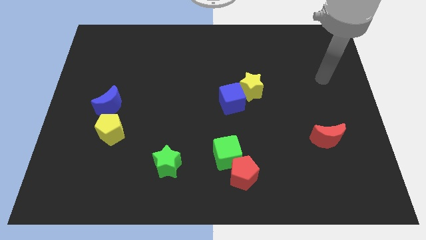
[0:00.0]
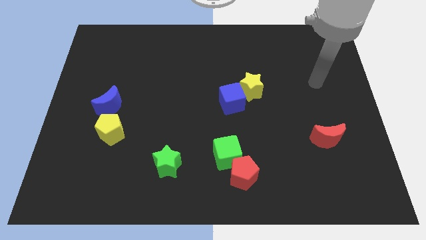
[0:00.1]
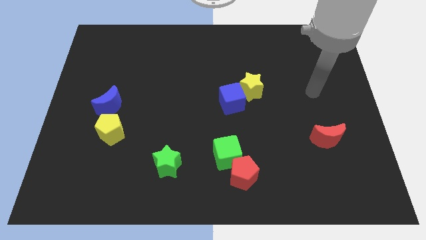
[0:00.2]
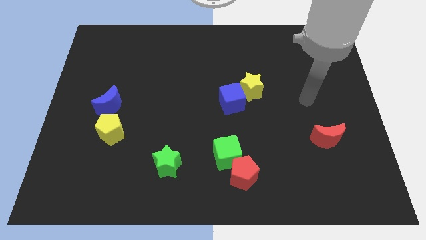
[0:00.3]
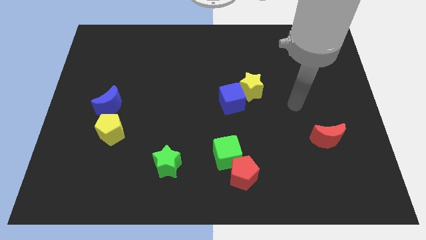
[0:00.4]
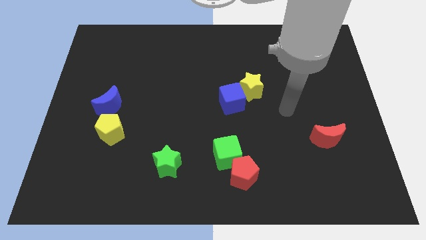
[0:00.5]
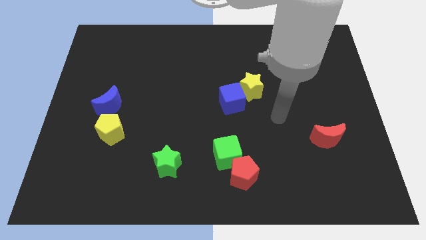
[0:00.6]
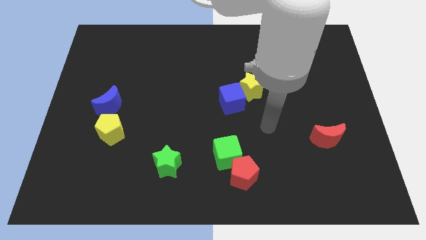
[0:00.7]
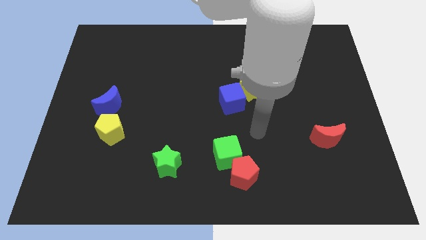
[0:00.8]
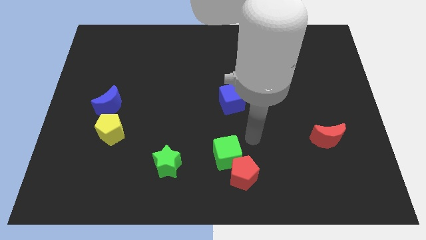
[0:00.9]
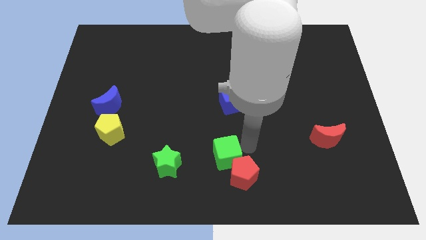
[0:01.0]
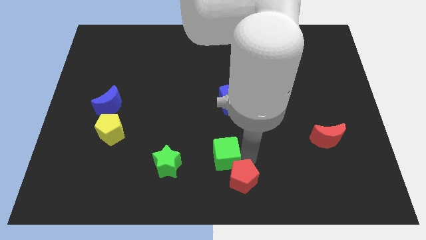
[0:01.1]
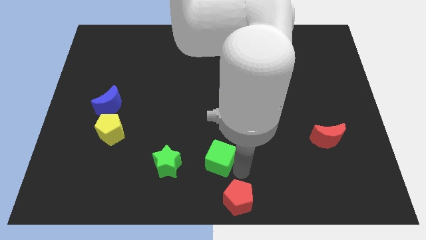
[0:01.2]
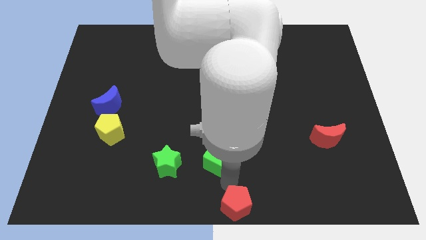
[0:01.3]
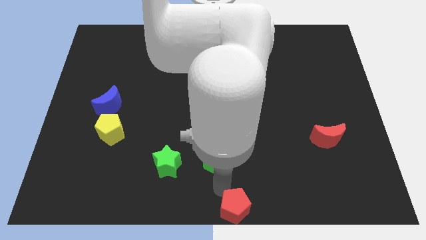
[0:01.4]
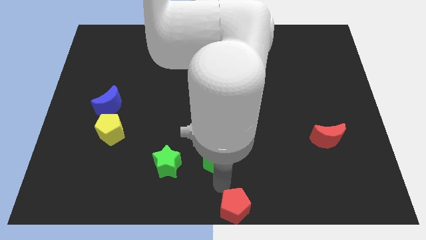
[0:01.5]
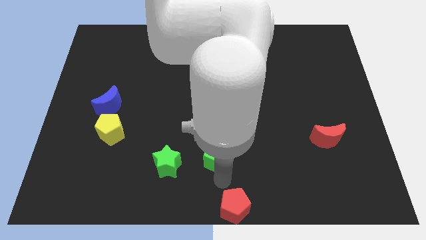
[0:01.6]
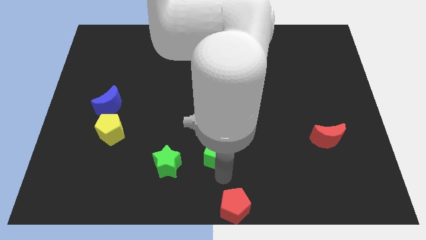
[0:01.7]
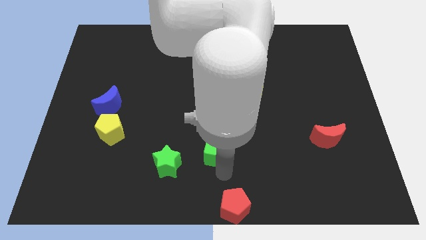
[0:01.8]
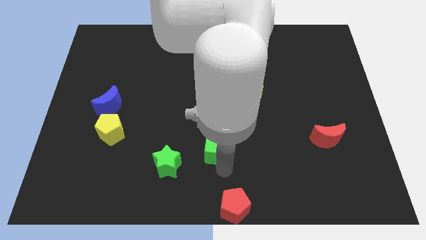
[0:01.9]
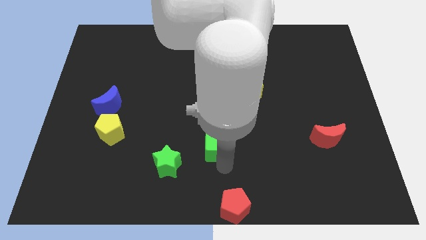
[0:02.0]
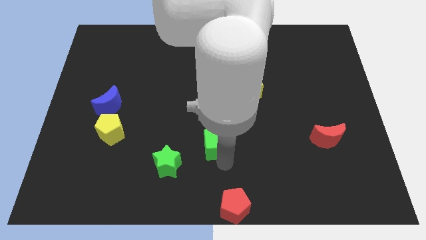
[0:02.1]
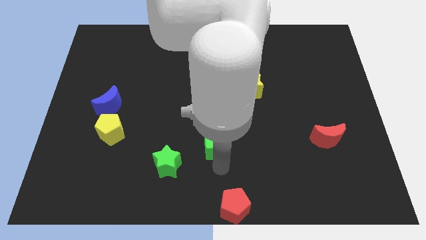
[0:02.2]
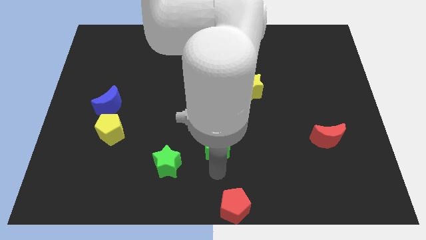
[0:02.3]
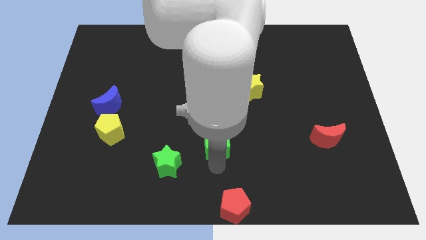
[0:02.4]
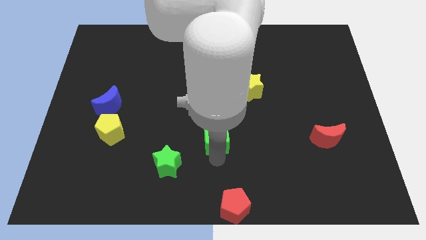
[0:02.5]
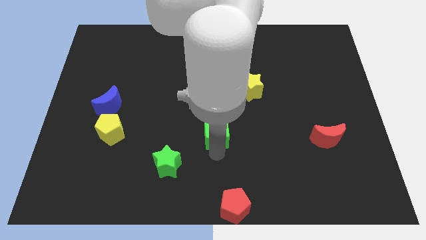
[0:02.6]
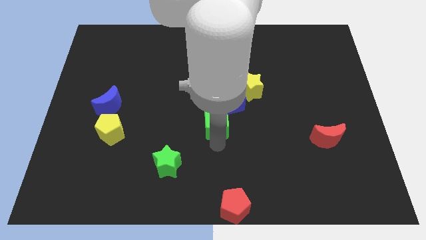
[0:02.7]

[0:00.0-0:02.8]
slightly push the green cube up

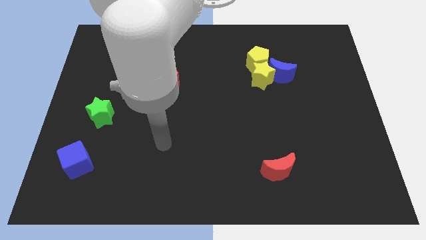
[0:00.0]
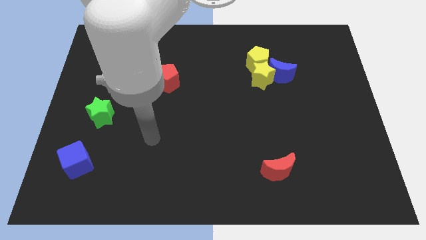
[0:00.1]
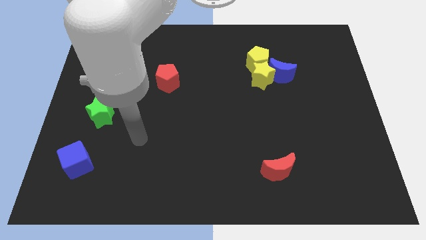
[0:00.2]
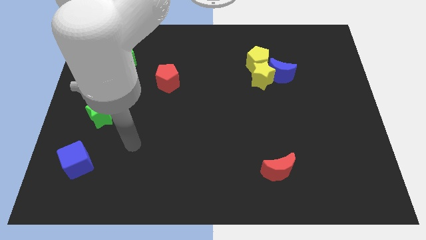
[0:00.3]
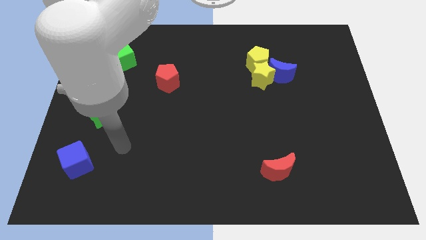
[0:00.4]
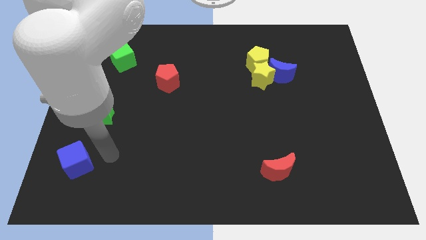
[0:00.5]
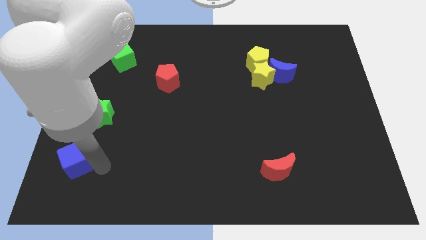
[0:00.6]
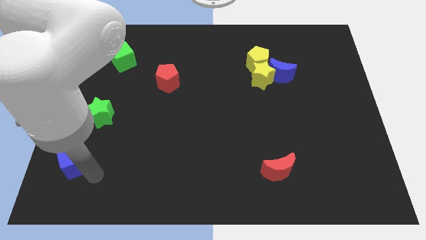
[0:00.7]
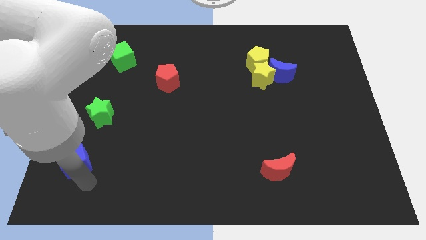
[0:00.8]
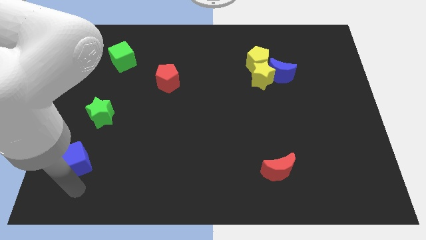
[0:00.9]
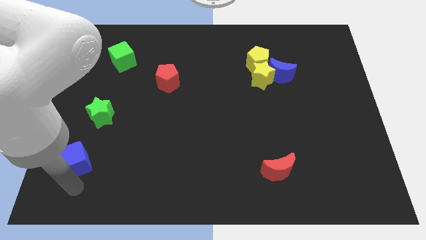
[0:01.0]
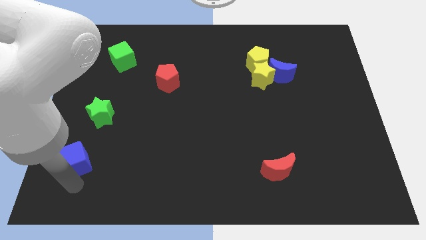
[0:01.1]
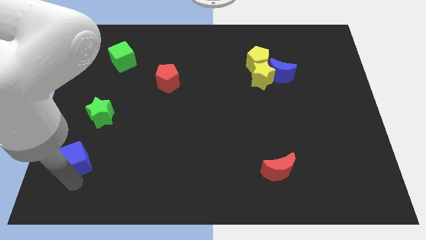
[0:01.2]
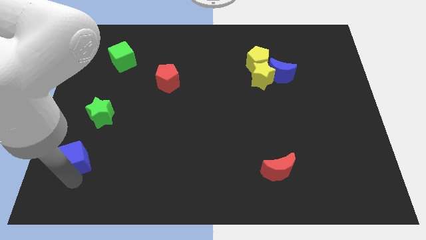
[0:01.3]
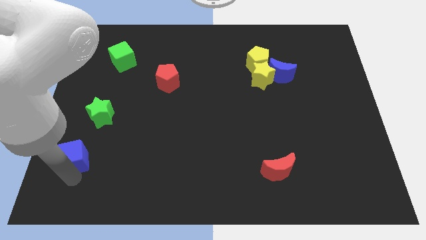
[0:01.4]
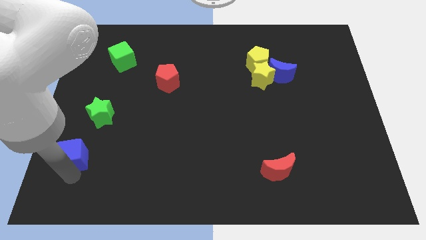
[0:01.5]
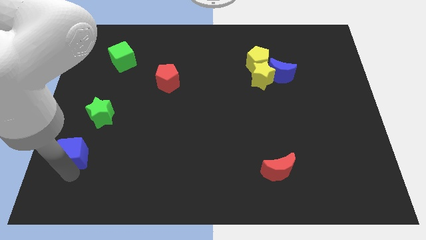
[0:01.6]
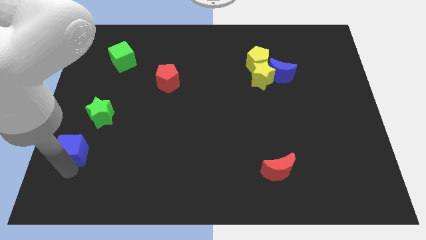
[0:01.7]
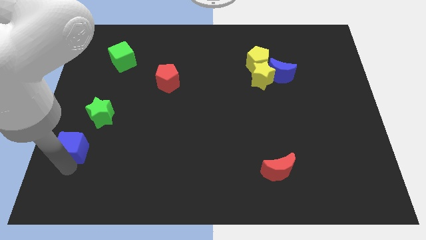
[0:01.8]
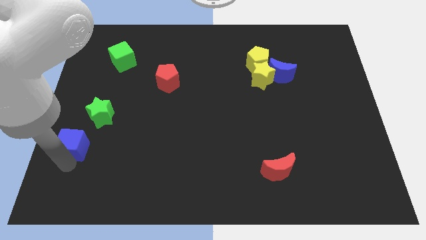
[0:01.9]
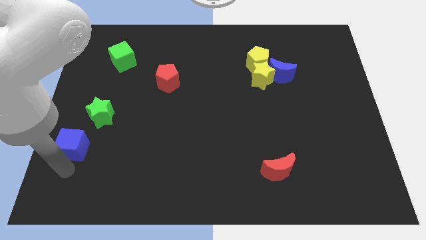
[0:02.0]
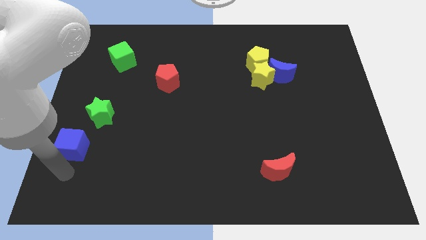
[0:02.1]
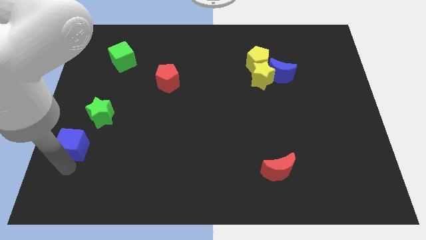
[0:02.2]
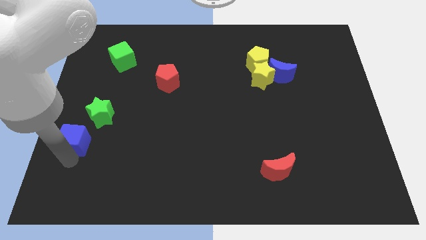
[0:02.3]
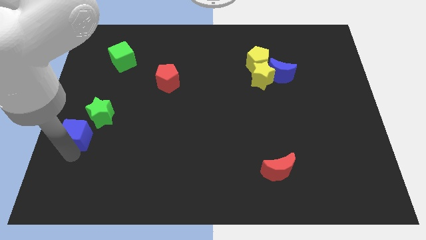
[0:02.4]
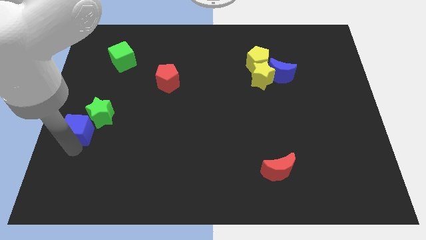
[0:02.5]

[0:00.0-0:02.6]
push the blue cube a little bit up

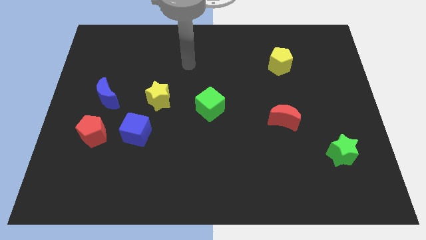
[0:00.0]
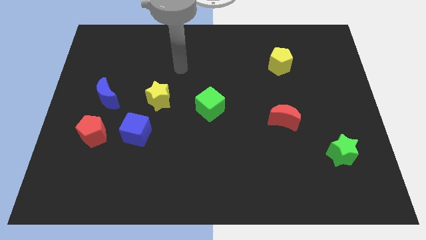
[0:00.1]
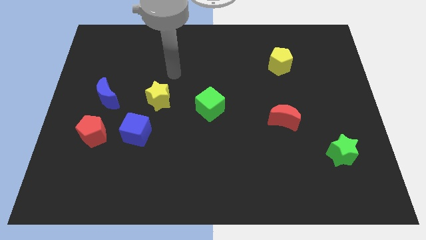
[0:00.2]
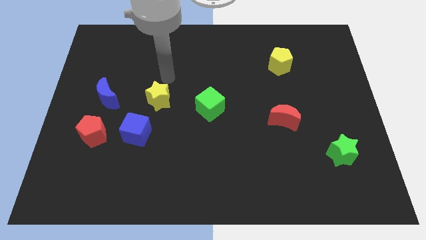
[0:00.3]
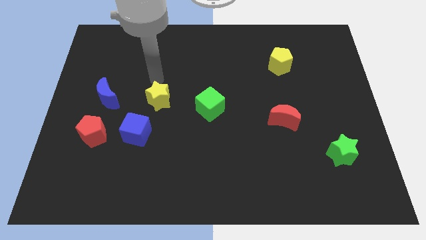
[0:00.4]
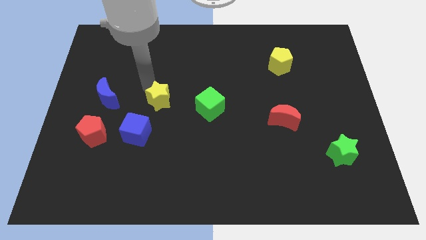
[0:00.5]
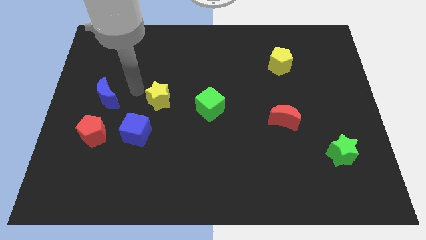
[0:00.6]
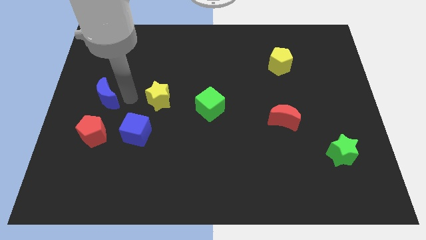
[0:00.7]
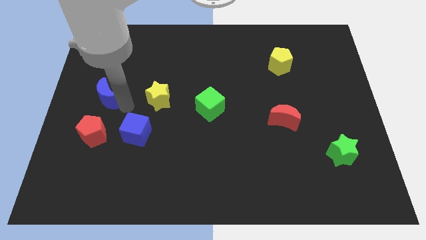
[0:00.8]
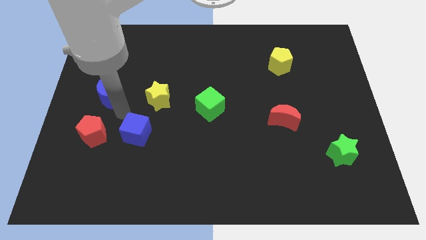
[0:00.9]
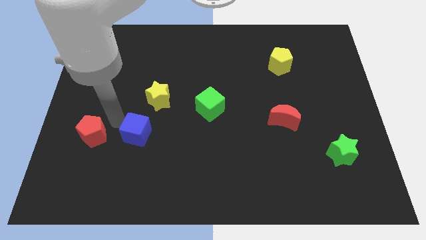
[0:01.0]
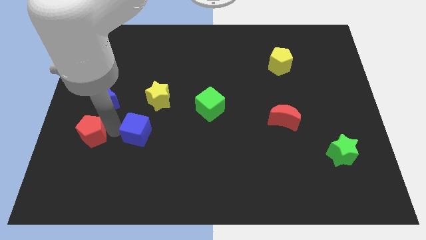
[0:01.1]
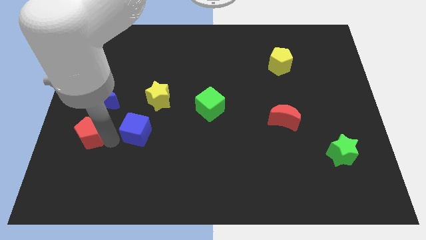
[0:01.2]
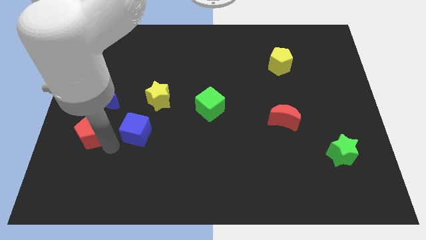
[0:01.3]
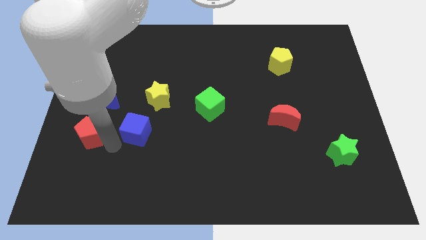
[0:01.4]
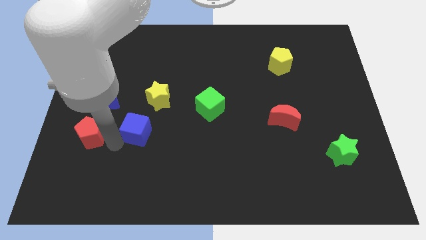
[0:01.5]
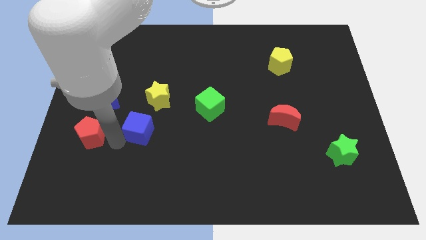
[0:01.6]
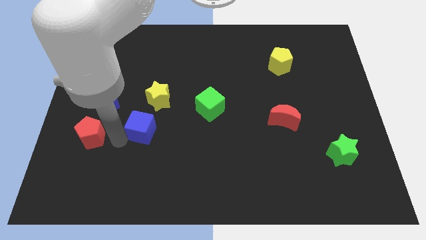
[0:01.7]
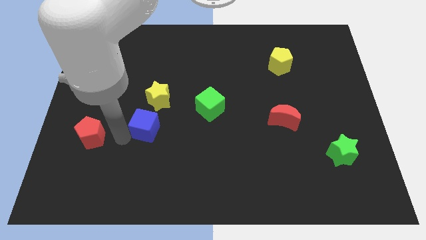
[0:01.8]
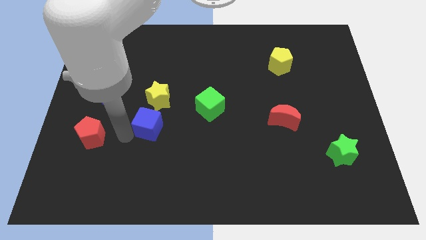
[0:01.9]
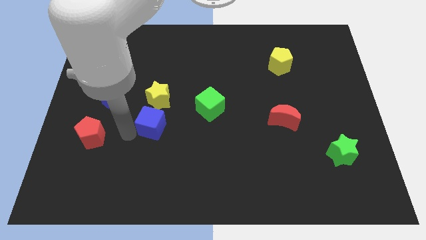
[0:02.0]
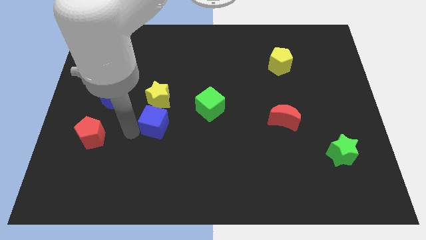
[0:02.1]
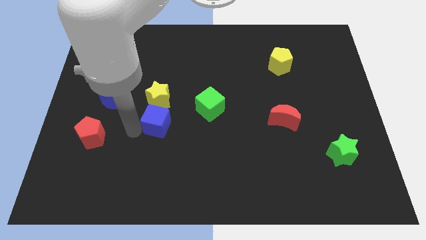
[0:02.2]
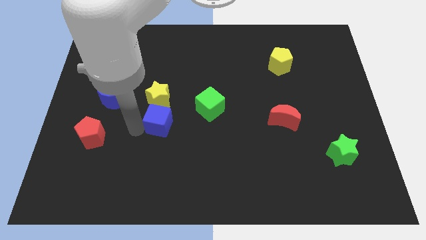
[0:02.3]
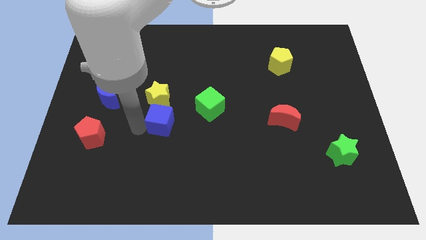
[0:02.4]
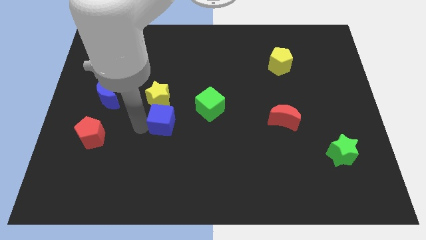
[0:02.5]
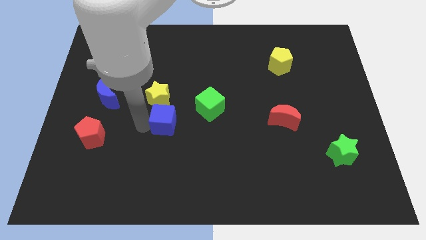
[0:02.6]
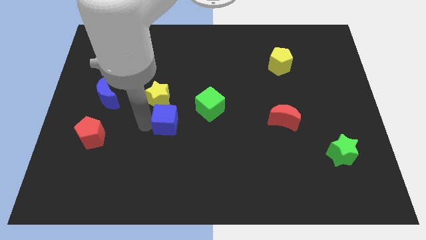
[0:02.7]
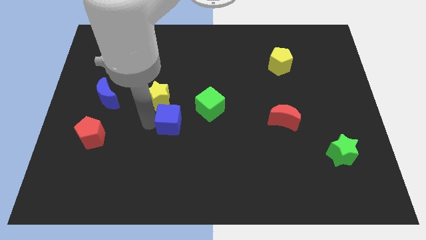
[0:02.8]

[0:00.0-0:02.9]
slide the blue cube upwards and to the right diagonally a bit

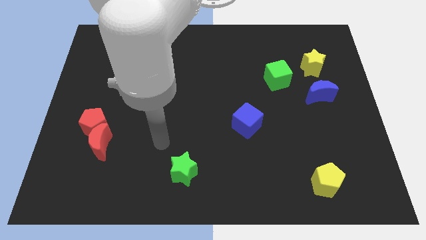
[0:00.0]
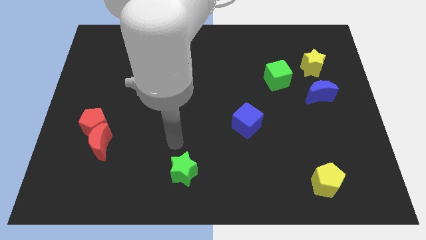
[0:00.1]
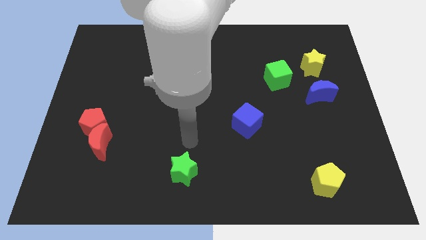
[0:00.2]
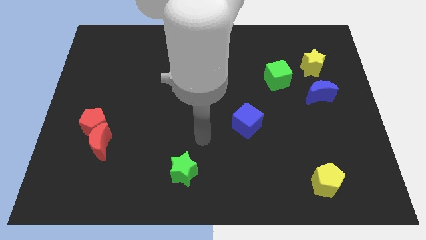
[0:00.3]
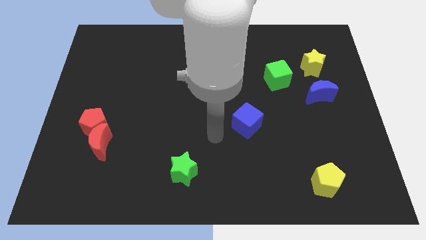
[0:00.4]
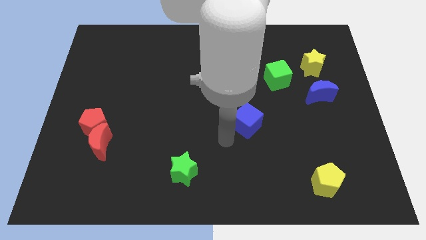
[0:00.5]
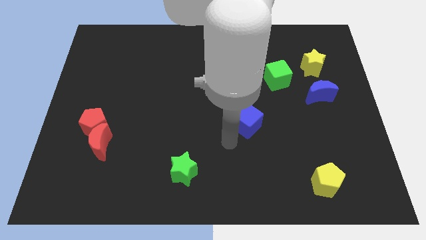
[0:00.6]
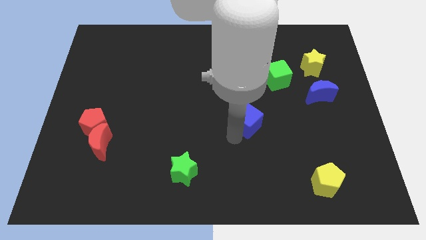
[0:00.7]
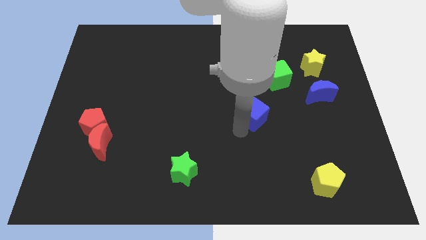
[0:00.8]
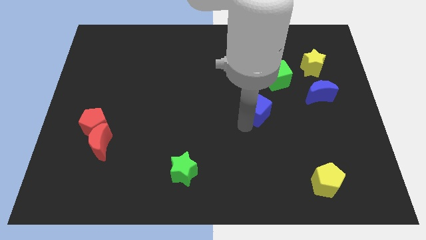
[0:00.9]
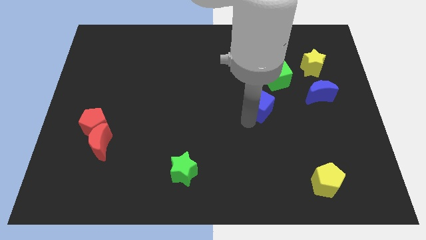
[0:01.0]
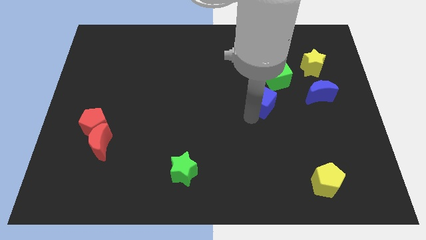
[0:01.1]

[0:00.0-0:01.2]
move the blue cube a little upwards and then to the right
